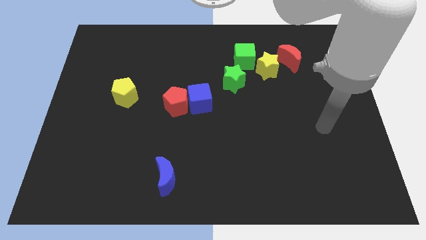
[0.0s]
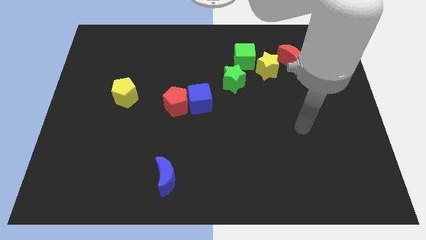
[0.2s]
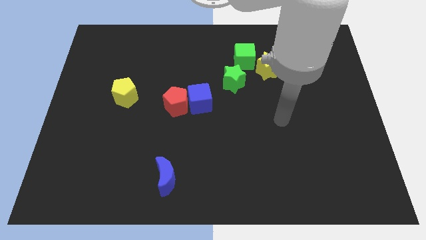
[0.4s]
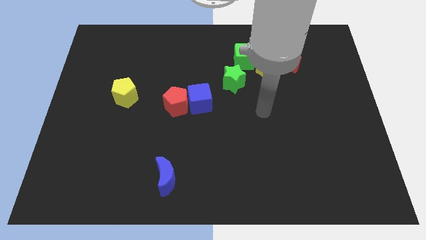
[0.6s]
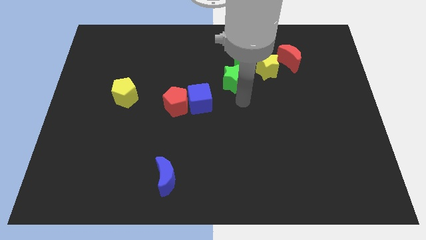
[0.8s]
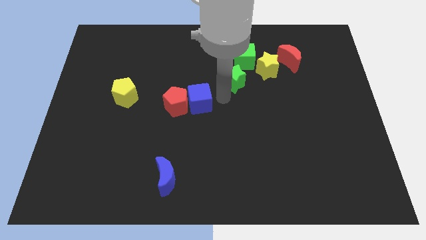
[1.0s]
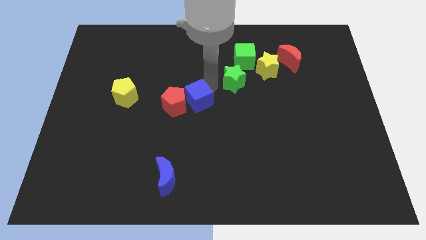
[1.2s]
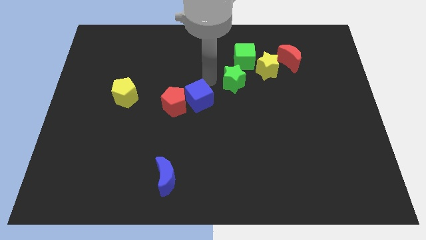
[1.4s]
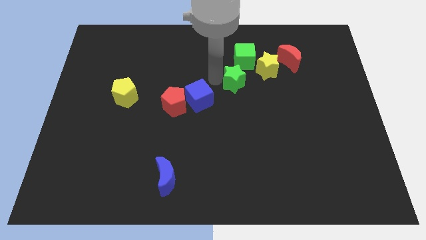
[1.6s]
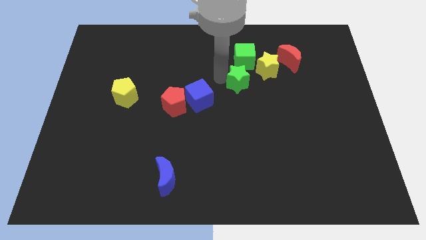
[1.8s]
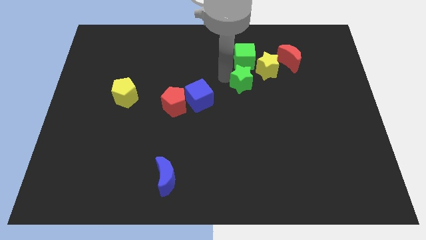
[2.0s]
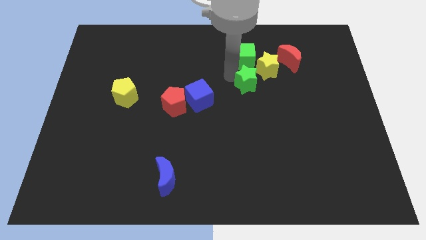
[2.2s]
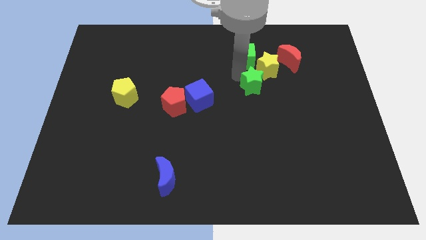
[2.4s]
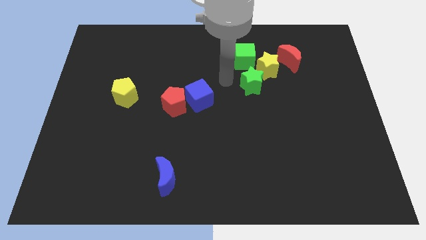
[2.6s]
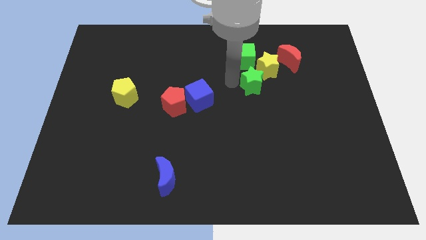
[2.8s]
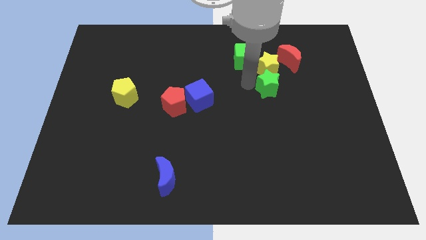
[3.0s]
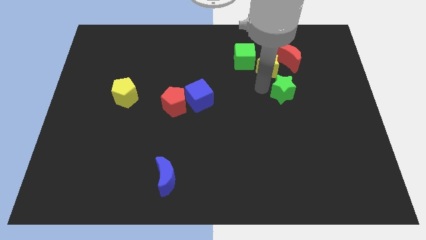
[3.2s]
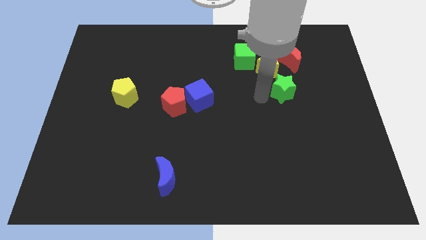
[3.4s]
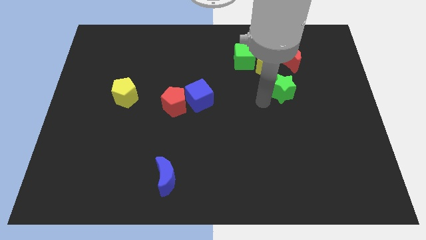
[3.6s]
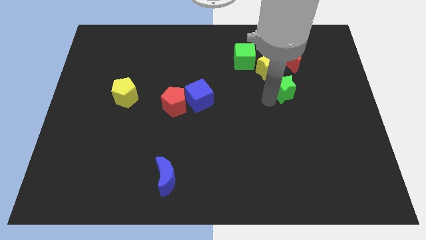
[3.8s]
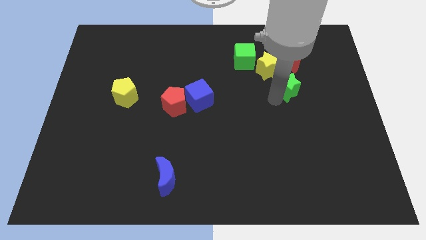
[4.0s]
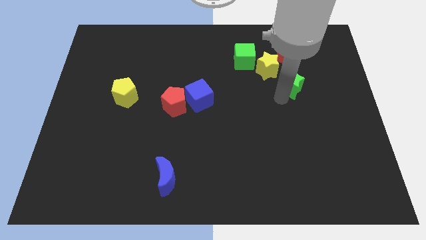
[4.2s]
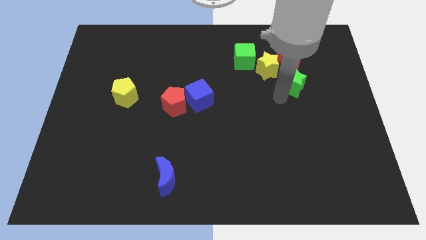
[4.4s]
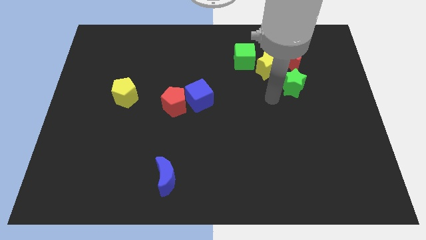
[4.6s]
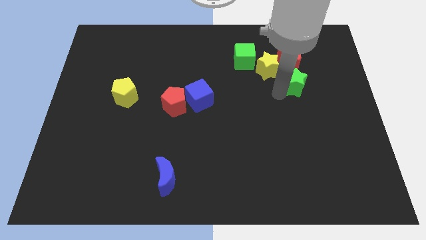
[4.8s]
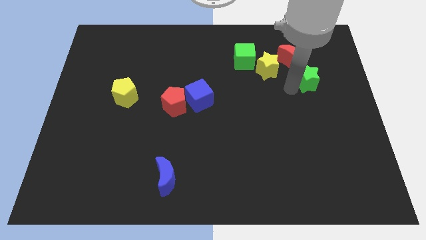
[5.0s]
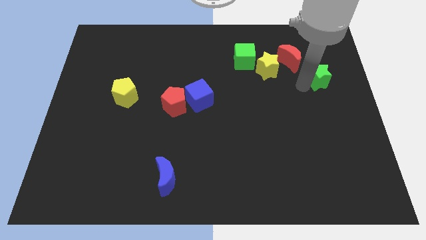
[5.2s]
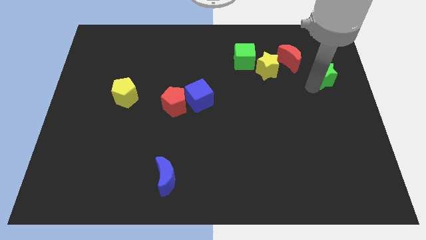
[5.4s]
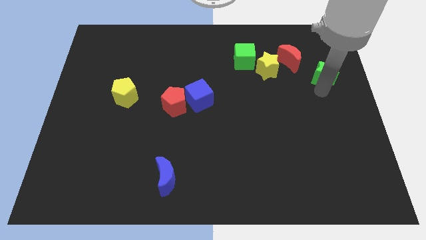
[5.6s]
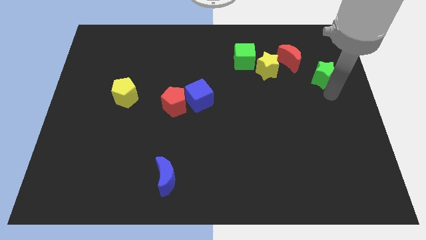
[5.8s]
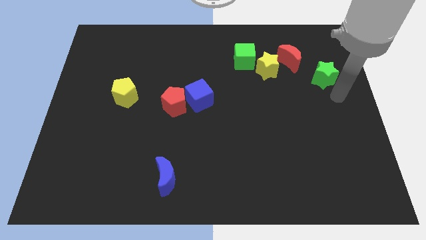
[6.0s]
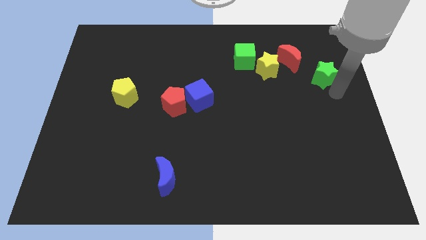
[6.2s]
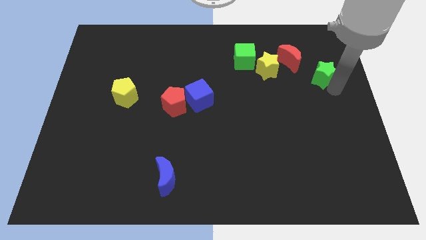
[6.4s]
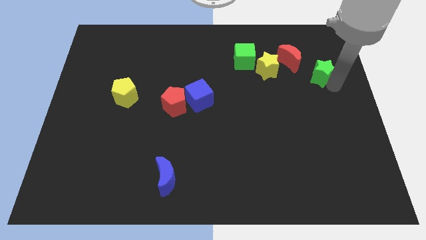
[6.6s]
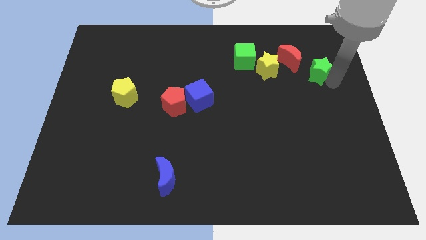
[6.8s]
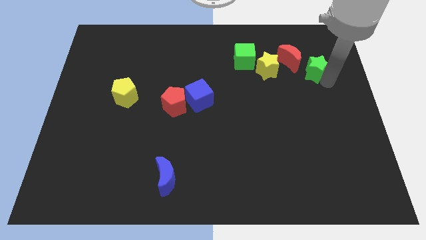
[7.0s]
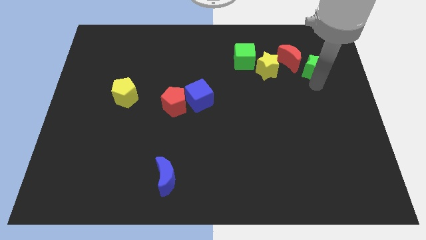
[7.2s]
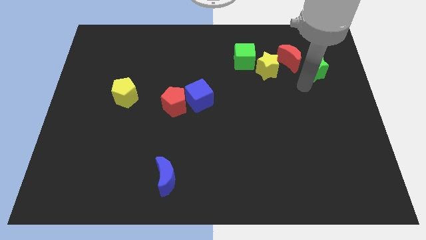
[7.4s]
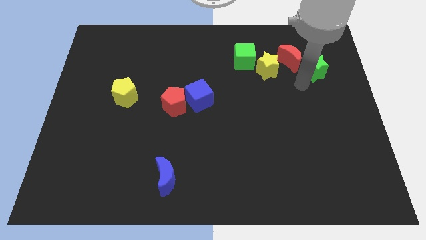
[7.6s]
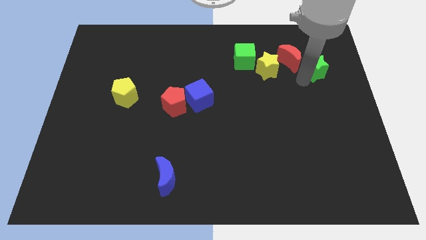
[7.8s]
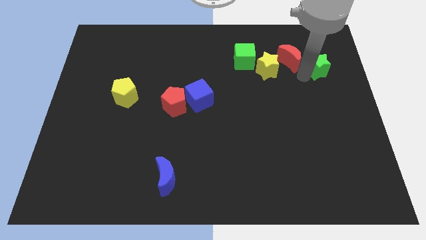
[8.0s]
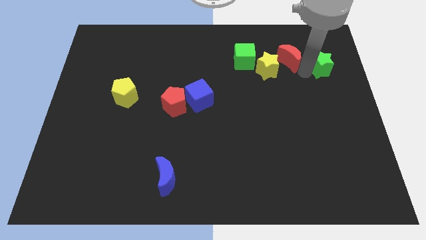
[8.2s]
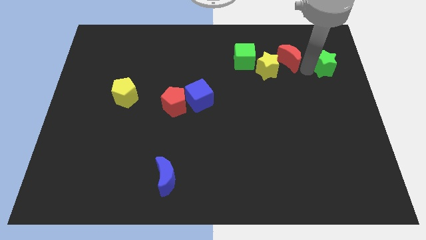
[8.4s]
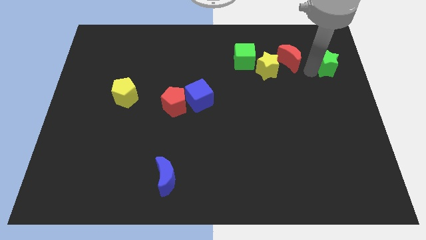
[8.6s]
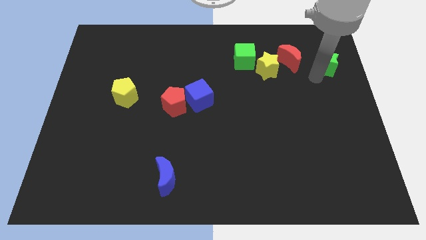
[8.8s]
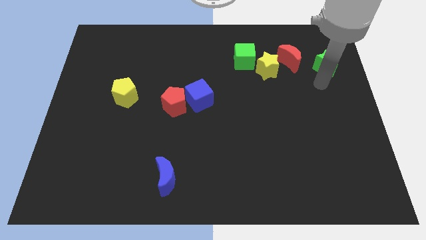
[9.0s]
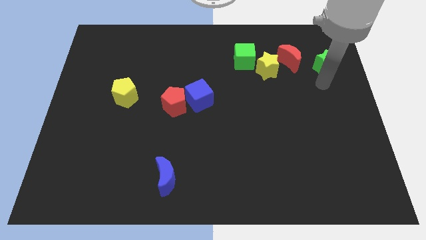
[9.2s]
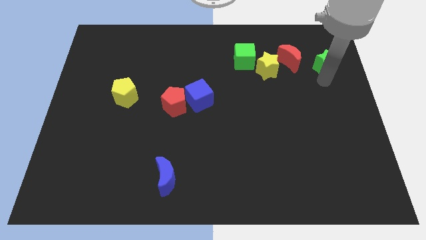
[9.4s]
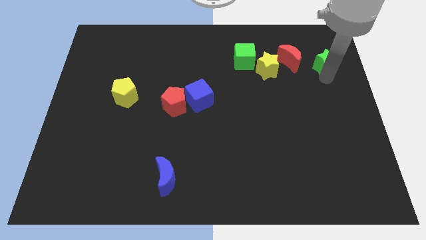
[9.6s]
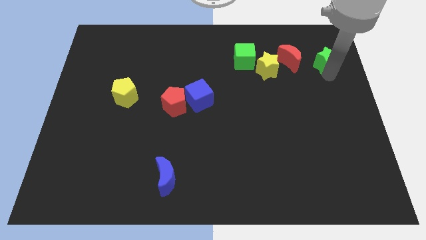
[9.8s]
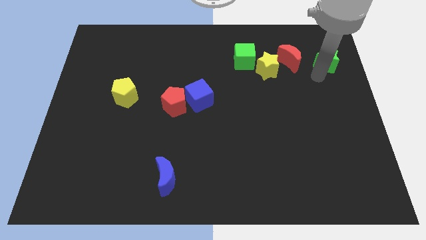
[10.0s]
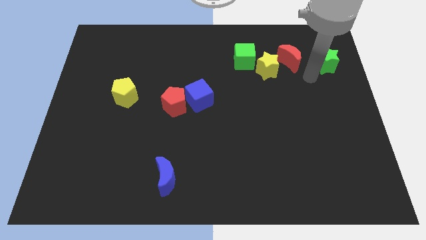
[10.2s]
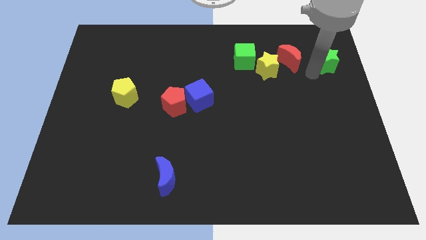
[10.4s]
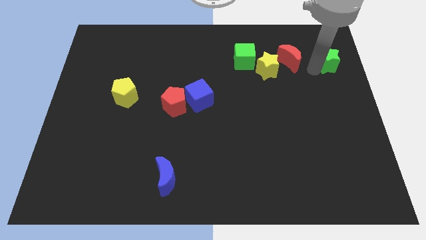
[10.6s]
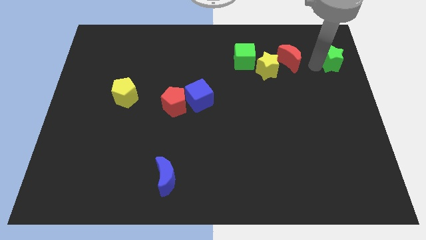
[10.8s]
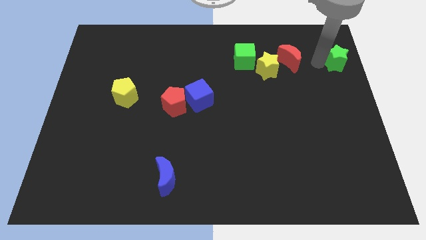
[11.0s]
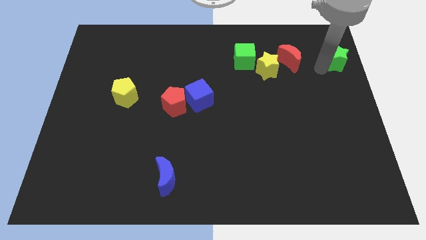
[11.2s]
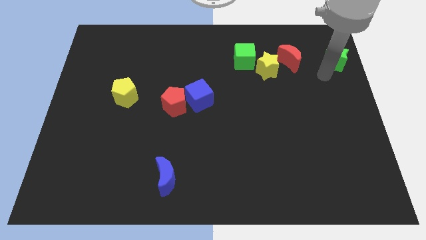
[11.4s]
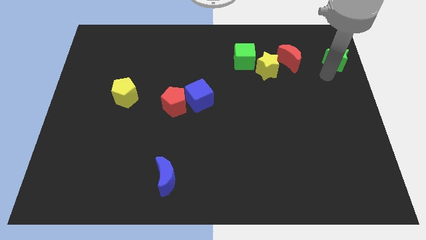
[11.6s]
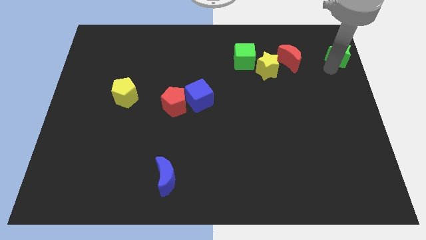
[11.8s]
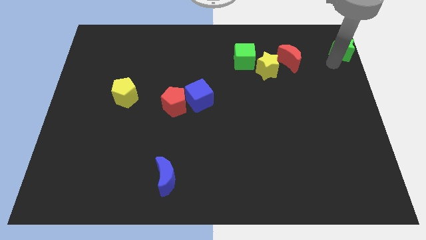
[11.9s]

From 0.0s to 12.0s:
push the green star to the top right
